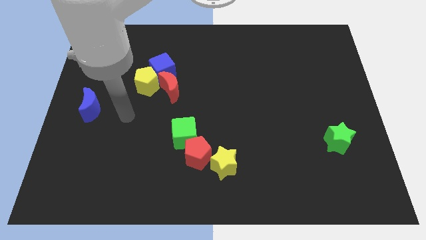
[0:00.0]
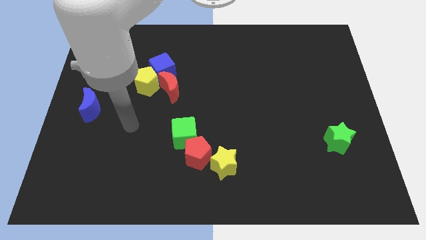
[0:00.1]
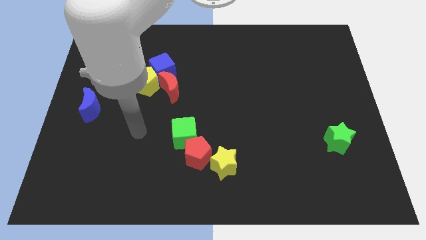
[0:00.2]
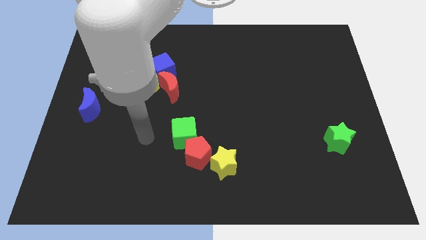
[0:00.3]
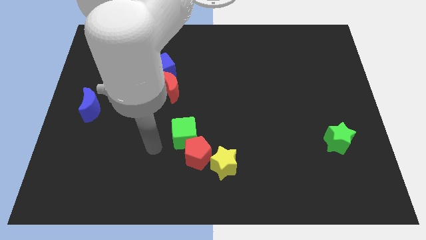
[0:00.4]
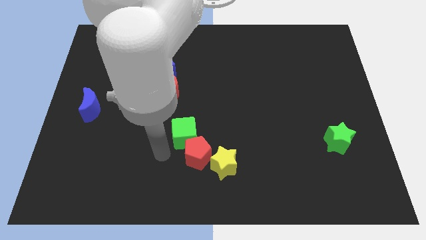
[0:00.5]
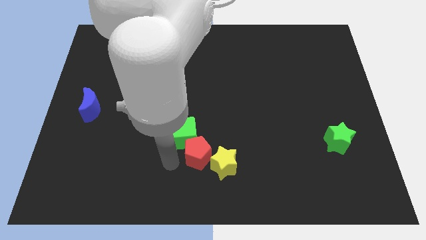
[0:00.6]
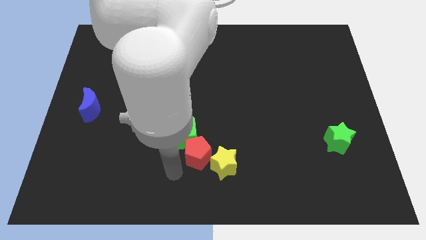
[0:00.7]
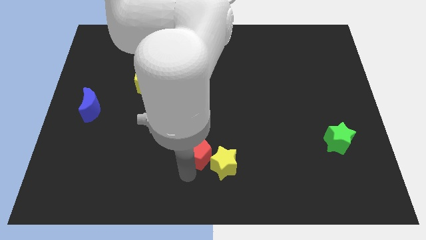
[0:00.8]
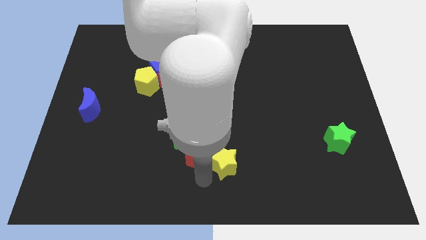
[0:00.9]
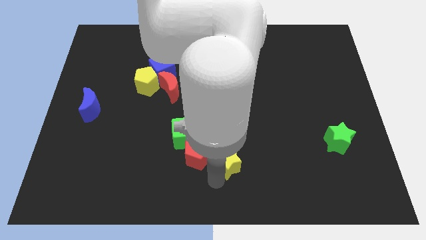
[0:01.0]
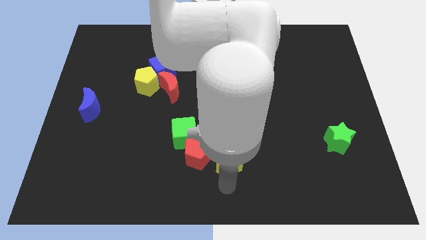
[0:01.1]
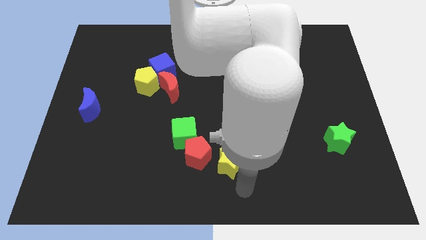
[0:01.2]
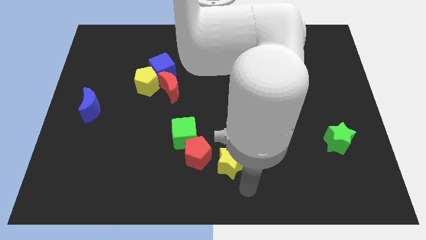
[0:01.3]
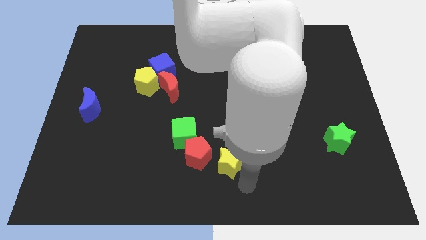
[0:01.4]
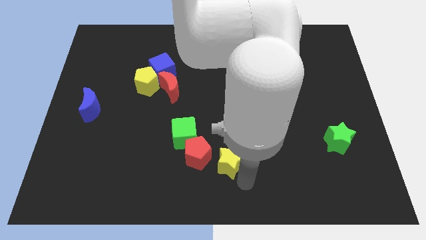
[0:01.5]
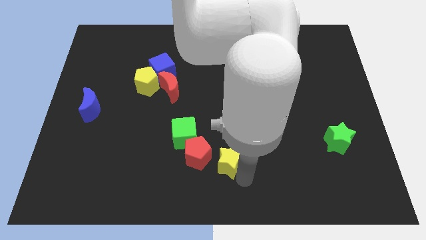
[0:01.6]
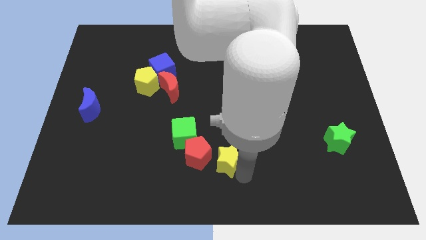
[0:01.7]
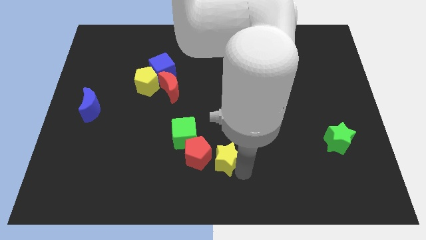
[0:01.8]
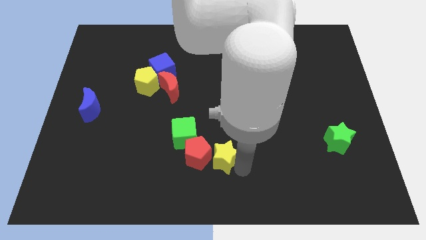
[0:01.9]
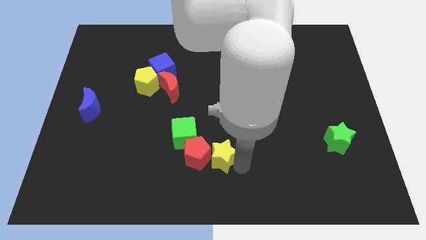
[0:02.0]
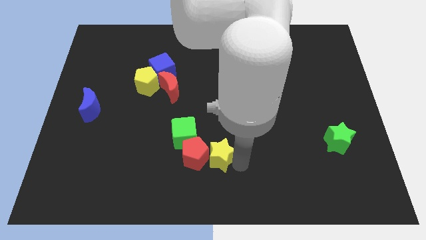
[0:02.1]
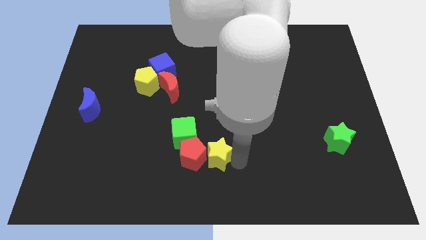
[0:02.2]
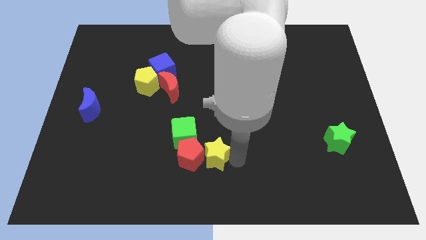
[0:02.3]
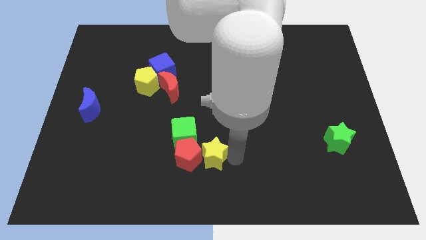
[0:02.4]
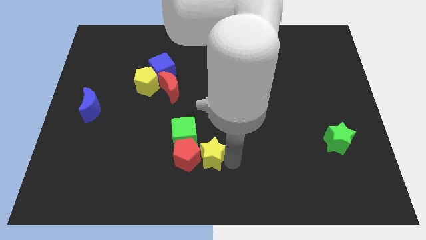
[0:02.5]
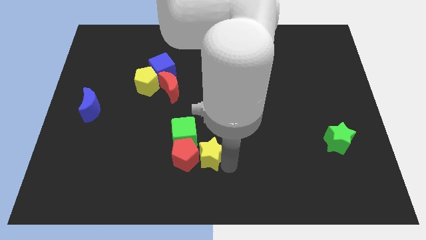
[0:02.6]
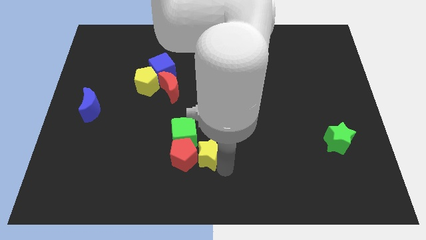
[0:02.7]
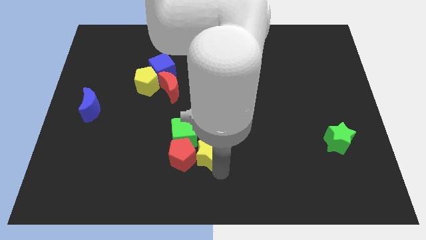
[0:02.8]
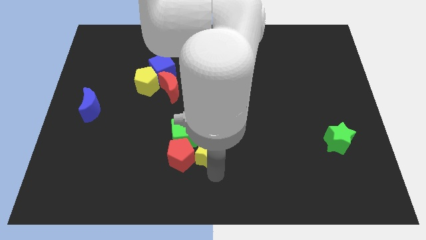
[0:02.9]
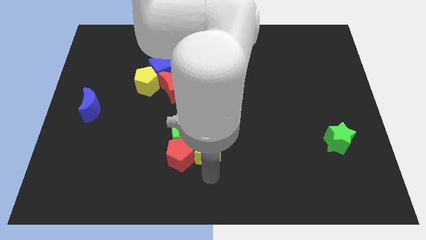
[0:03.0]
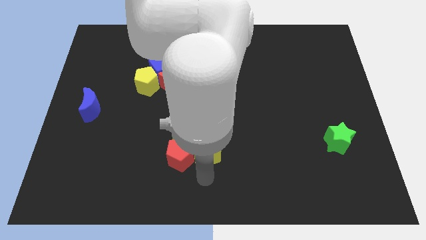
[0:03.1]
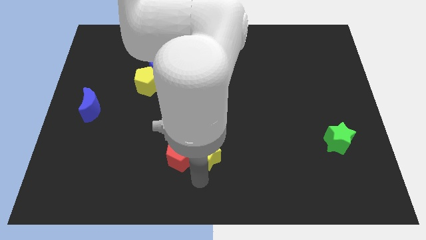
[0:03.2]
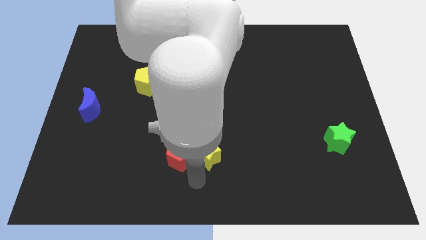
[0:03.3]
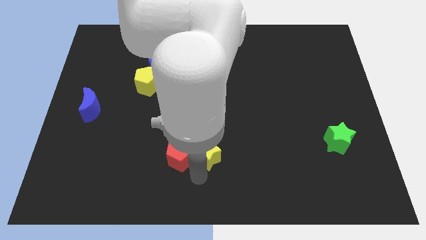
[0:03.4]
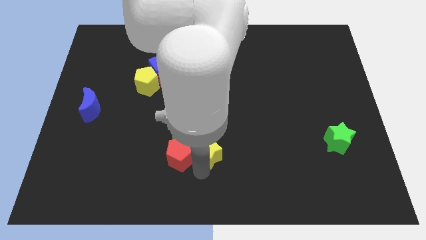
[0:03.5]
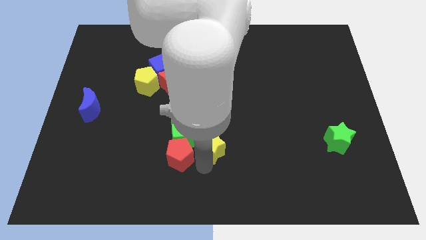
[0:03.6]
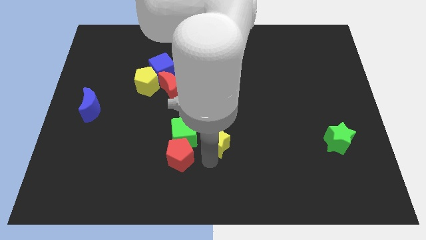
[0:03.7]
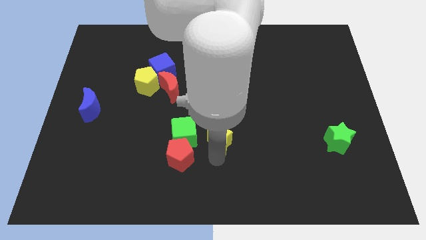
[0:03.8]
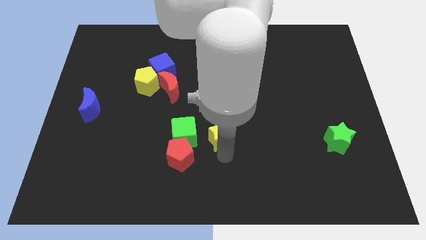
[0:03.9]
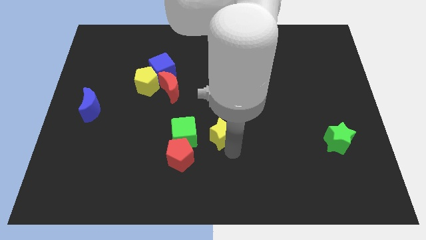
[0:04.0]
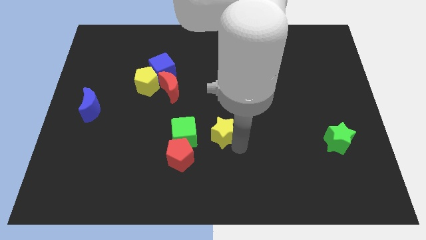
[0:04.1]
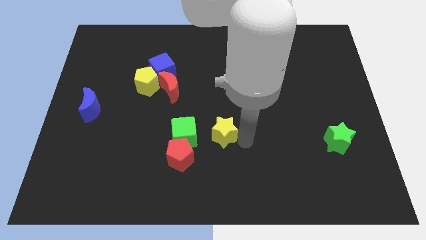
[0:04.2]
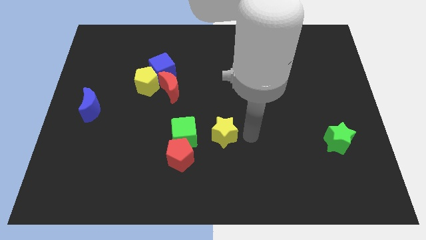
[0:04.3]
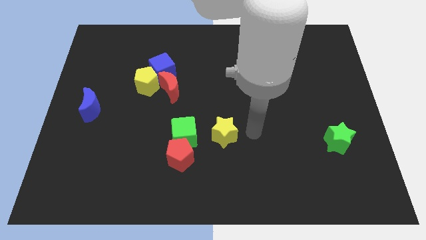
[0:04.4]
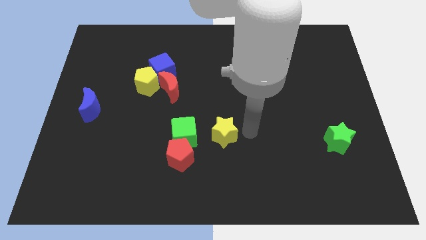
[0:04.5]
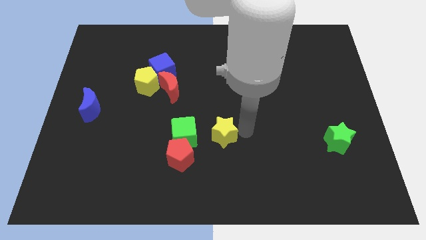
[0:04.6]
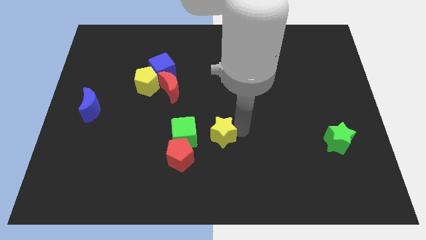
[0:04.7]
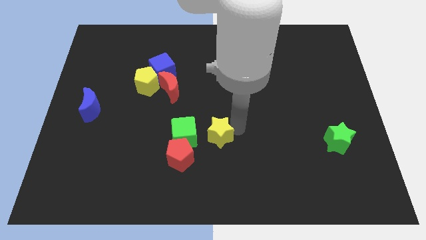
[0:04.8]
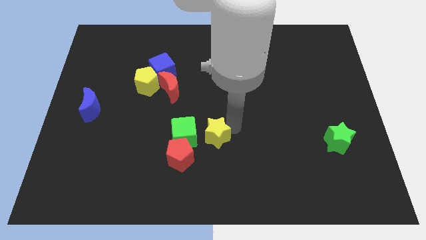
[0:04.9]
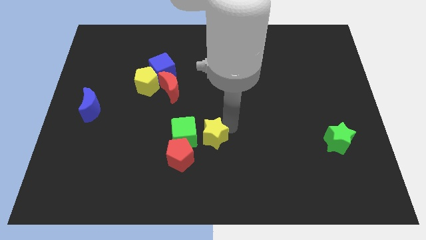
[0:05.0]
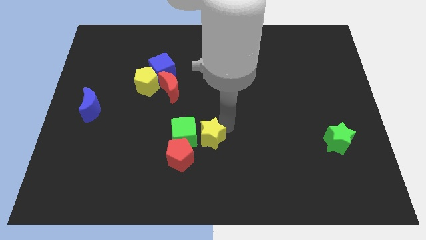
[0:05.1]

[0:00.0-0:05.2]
put the yellow star next to the green cube
